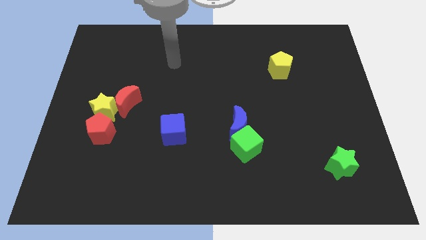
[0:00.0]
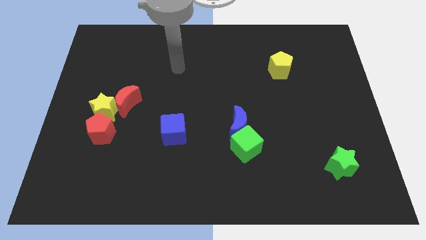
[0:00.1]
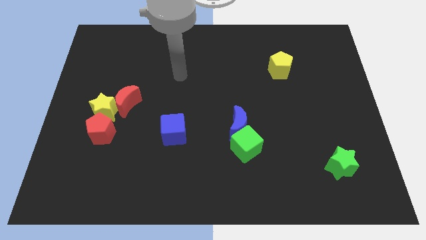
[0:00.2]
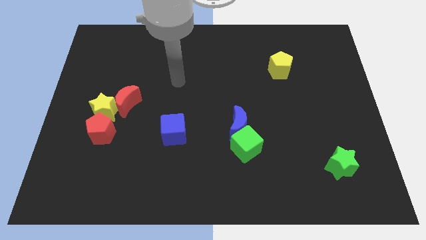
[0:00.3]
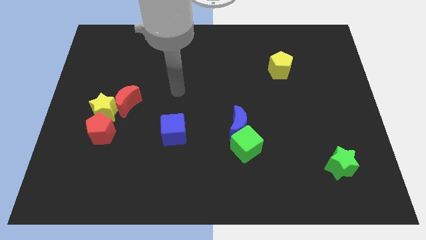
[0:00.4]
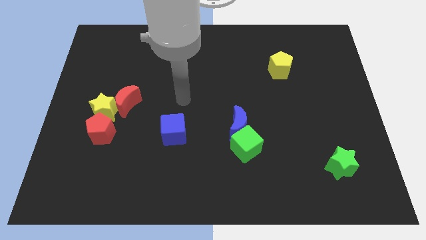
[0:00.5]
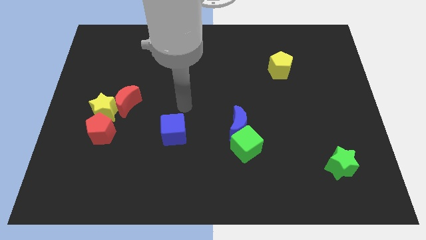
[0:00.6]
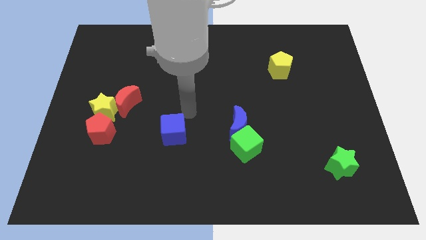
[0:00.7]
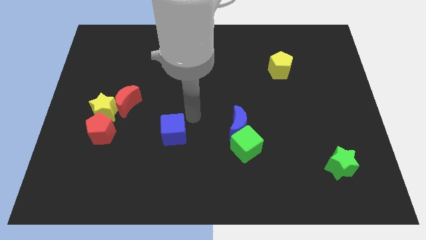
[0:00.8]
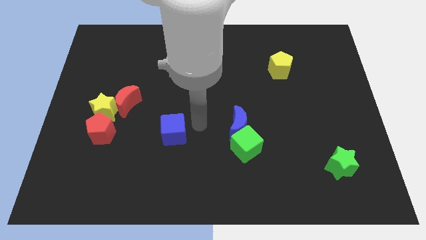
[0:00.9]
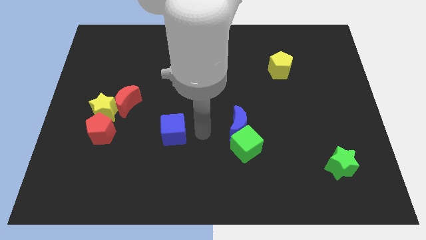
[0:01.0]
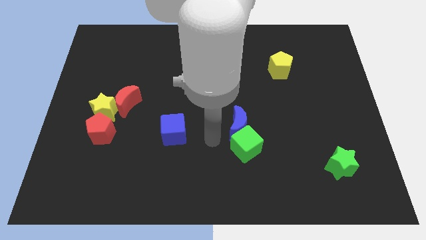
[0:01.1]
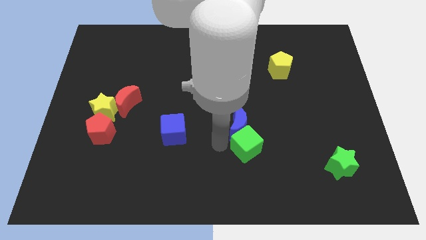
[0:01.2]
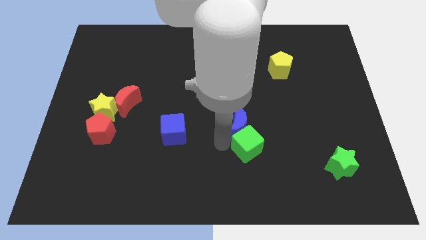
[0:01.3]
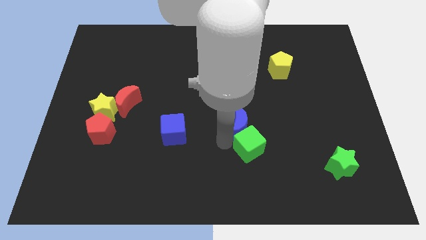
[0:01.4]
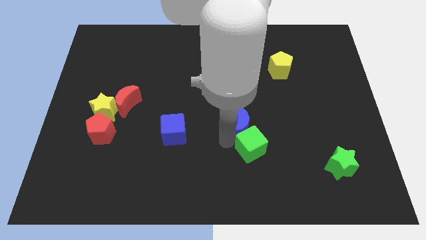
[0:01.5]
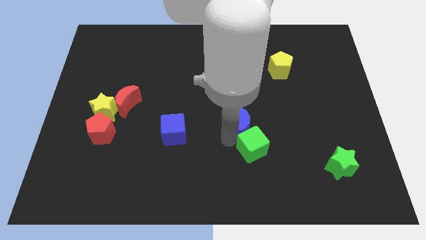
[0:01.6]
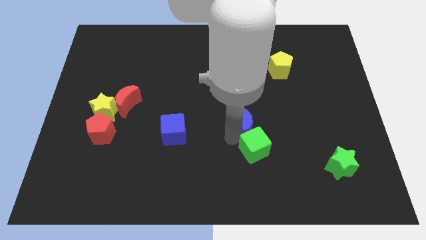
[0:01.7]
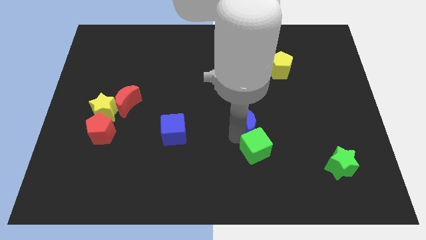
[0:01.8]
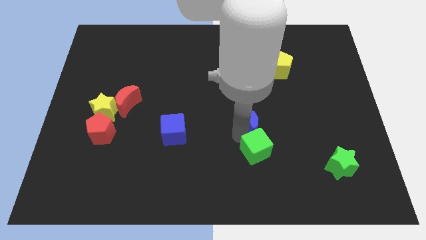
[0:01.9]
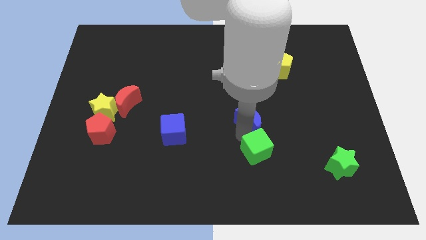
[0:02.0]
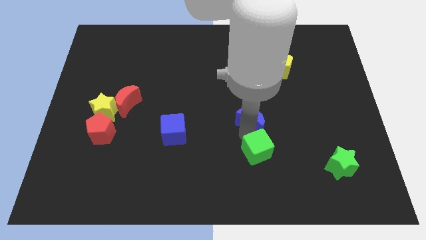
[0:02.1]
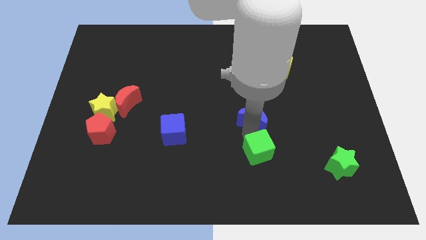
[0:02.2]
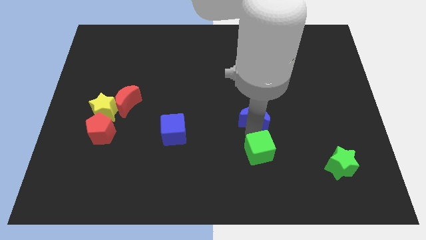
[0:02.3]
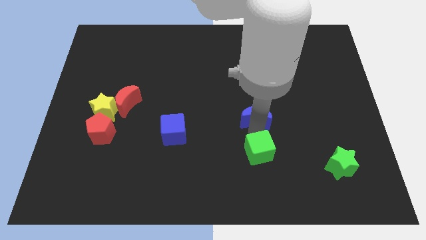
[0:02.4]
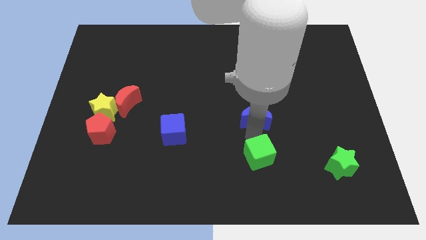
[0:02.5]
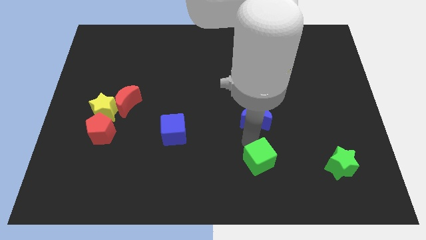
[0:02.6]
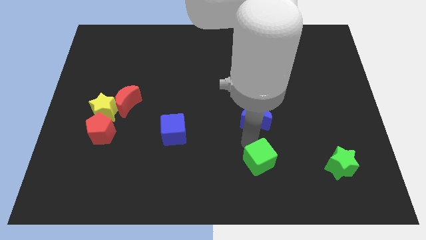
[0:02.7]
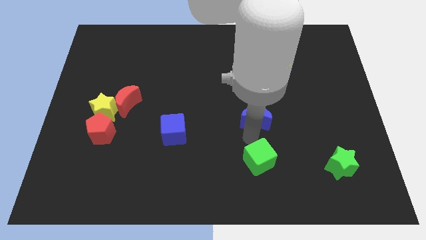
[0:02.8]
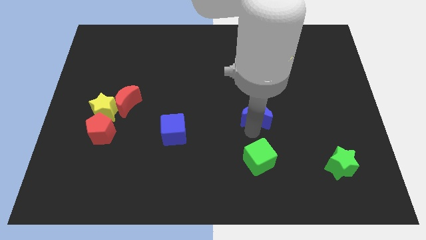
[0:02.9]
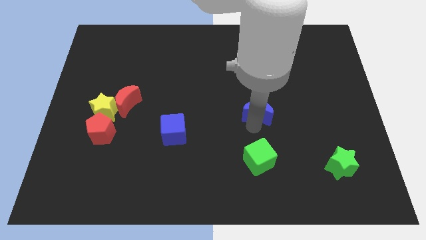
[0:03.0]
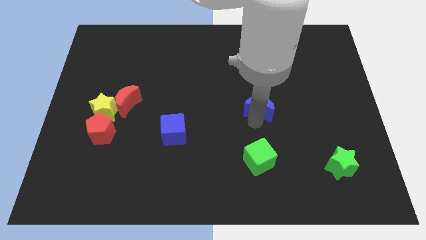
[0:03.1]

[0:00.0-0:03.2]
move the blue moon diagonally up and right somewhat

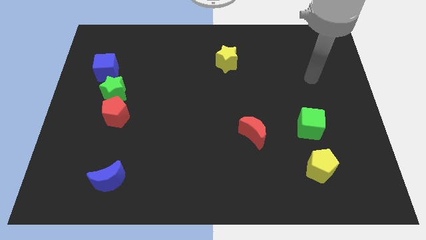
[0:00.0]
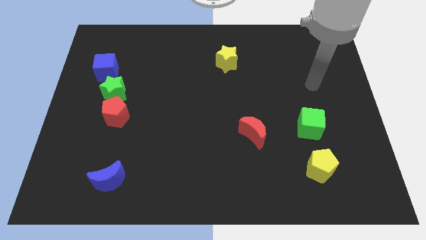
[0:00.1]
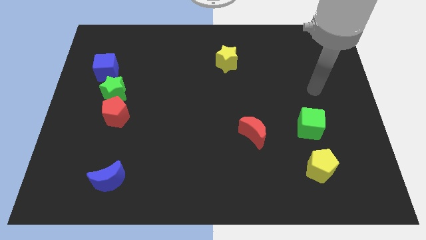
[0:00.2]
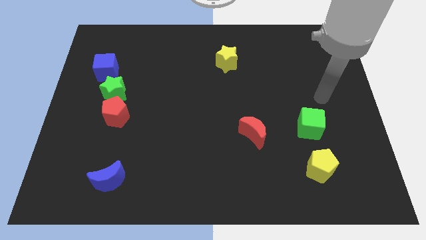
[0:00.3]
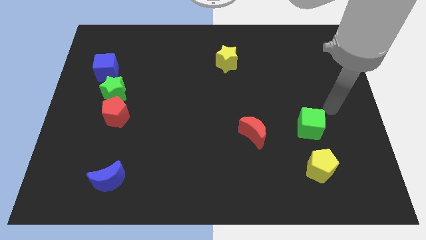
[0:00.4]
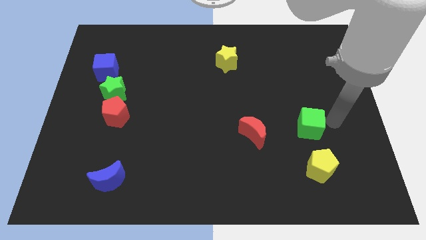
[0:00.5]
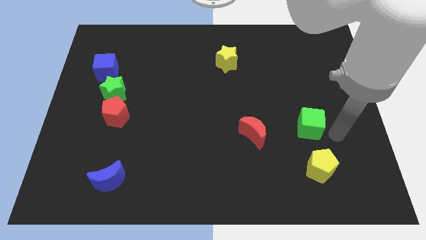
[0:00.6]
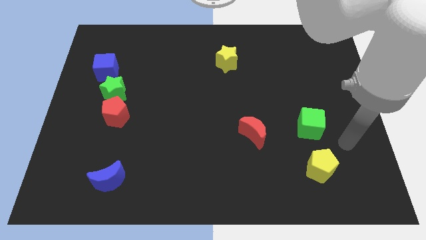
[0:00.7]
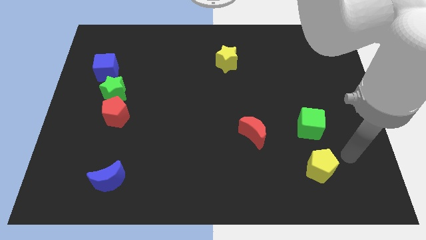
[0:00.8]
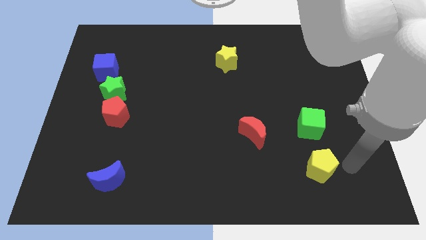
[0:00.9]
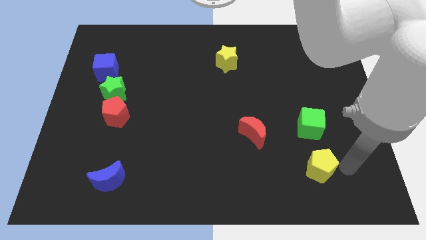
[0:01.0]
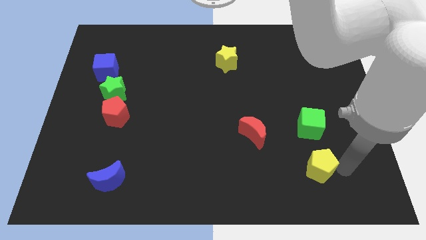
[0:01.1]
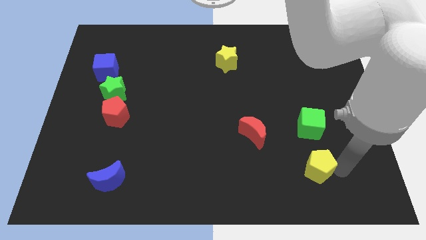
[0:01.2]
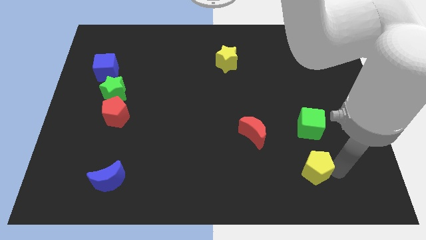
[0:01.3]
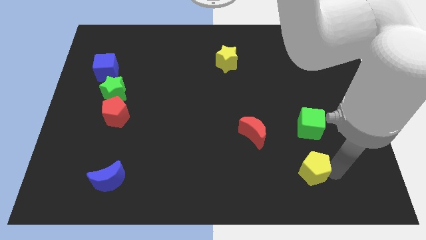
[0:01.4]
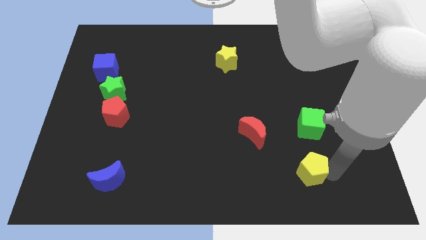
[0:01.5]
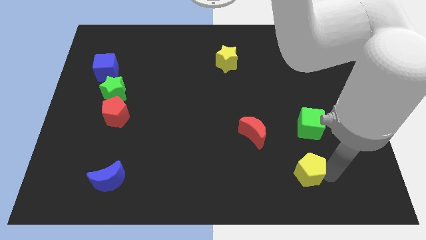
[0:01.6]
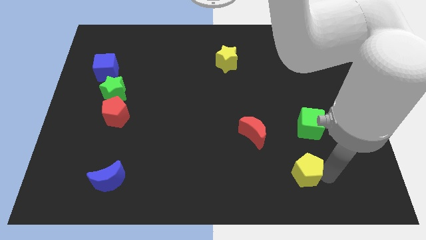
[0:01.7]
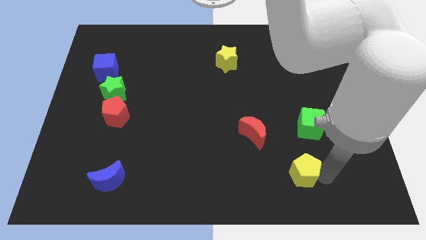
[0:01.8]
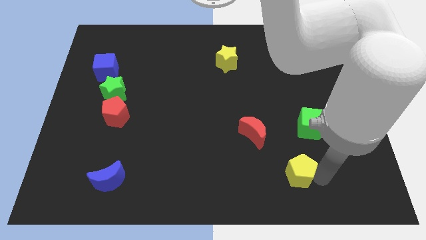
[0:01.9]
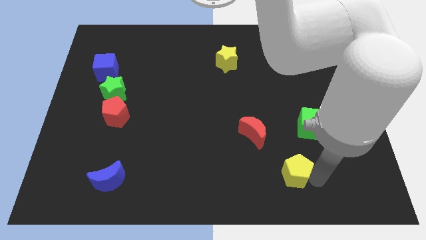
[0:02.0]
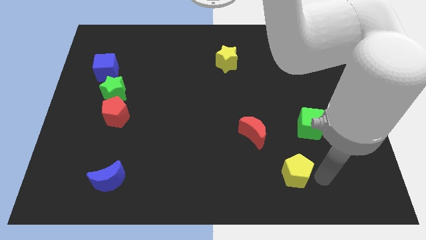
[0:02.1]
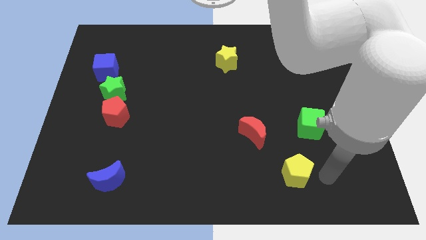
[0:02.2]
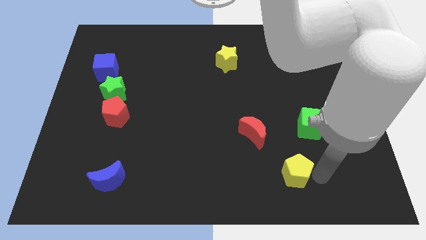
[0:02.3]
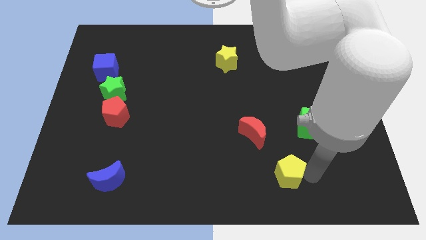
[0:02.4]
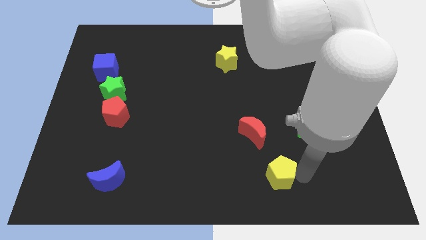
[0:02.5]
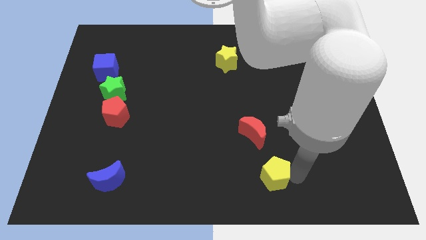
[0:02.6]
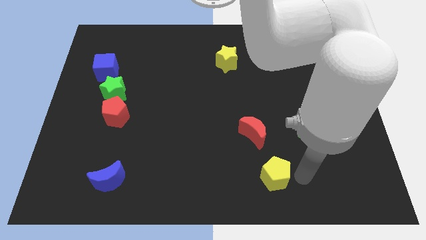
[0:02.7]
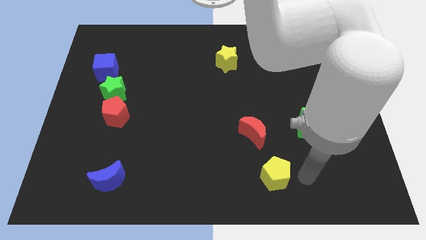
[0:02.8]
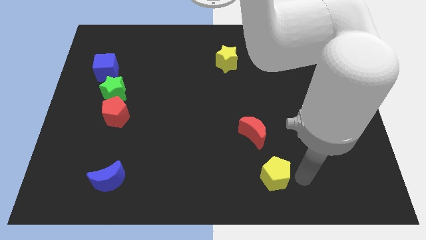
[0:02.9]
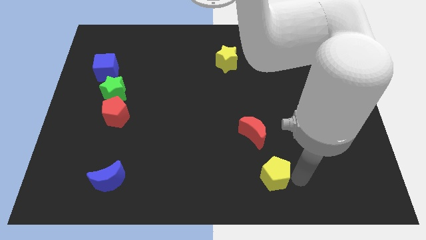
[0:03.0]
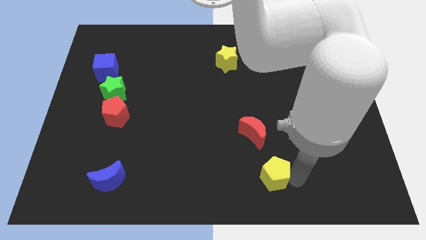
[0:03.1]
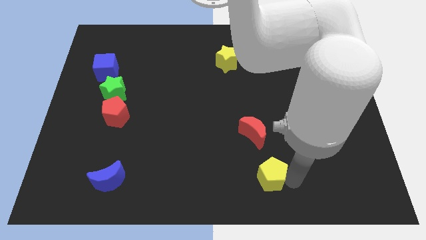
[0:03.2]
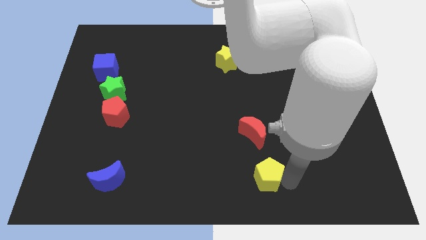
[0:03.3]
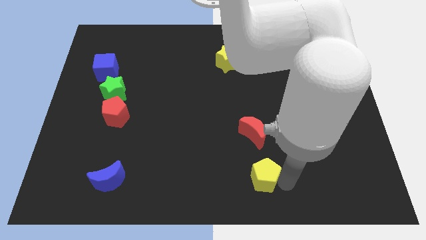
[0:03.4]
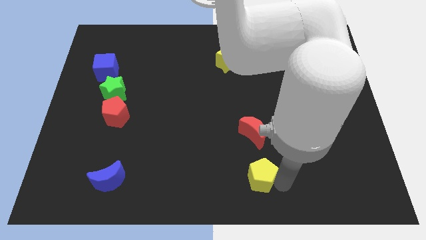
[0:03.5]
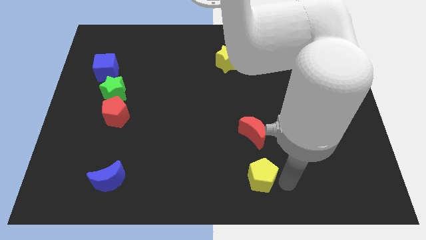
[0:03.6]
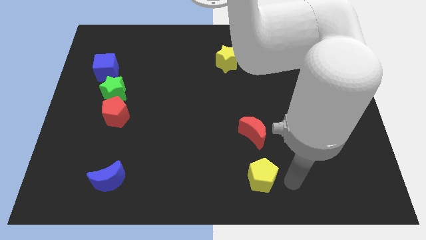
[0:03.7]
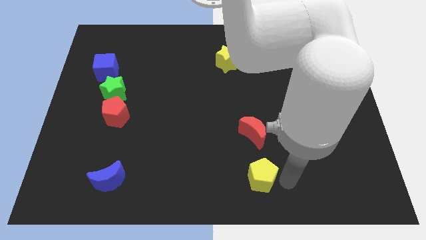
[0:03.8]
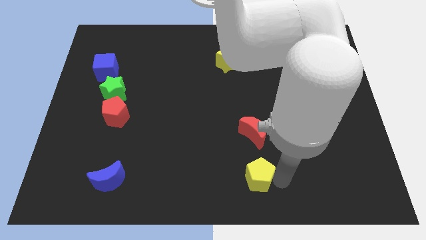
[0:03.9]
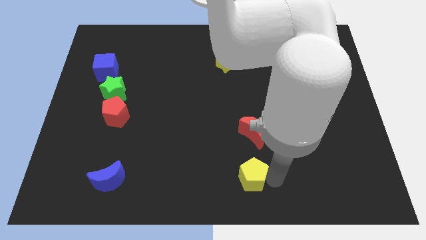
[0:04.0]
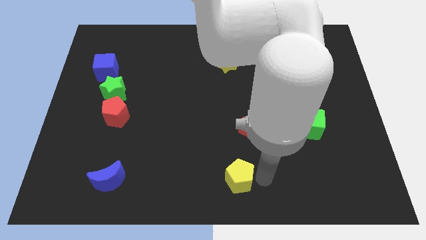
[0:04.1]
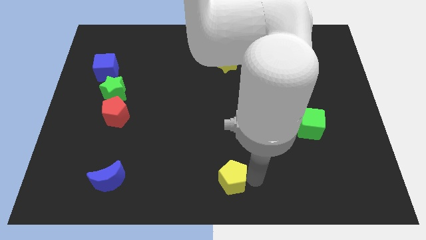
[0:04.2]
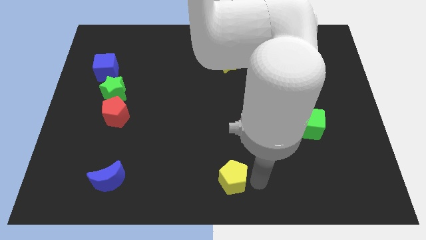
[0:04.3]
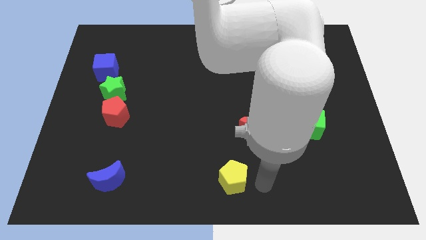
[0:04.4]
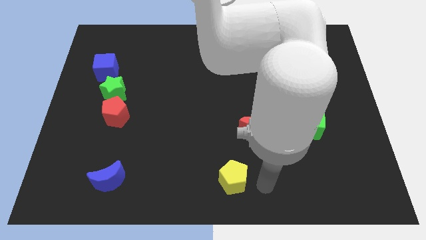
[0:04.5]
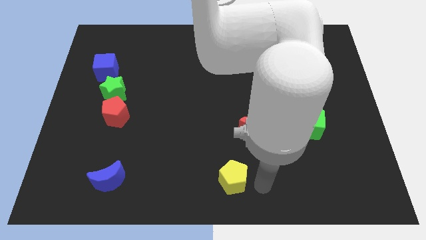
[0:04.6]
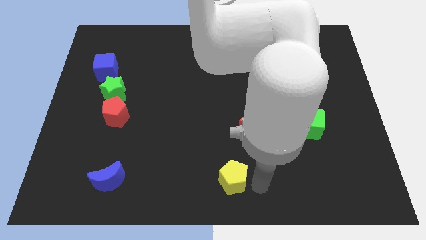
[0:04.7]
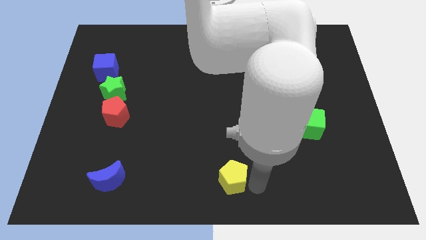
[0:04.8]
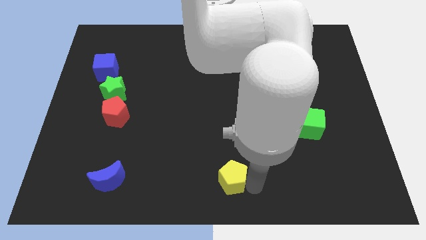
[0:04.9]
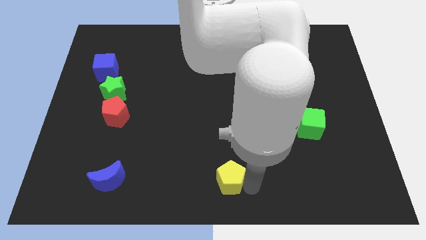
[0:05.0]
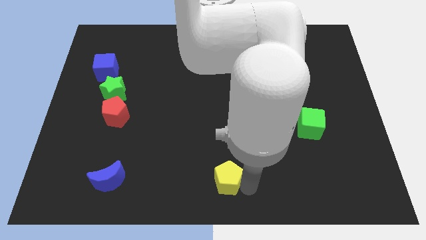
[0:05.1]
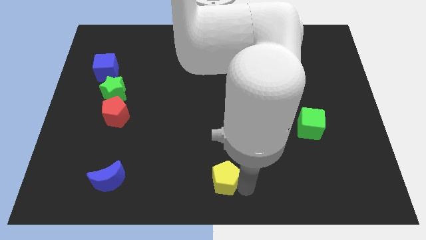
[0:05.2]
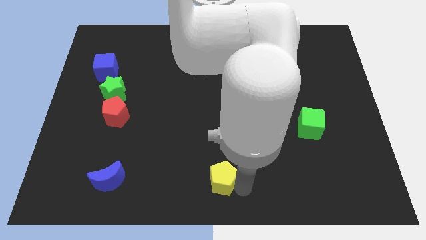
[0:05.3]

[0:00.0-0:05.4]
push the yellow pentagon to the left
